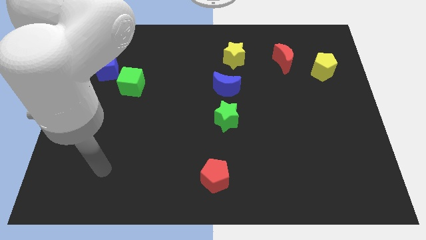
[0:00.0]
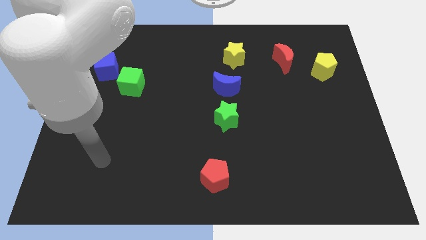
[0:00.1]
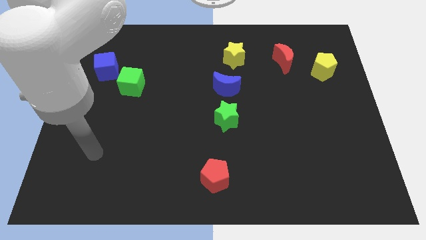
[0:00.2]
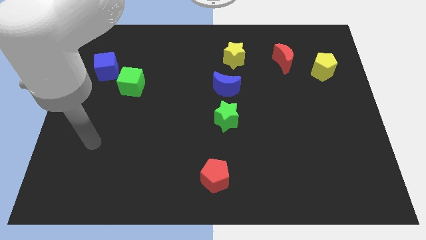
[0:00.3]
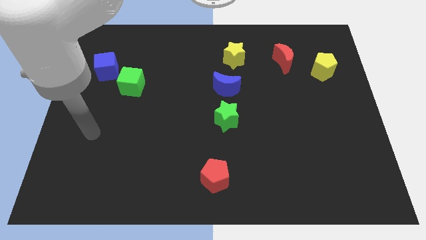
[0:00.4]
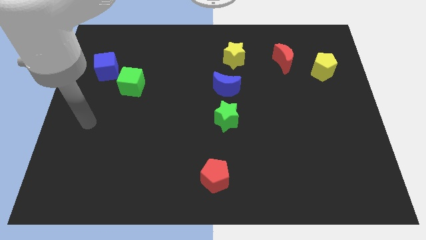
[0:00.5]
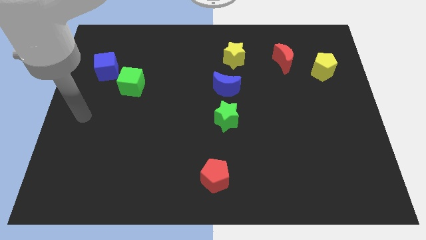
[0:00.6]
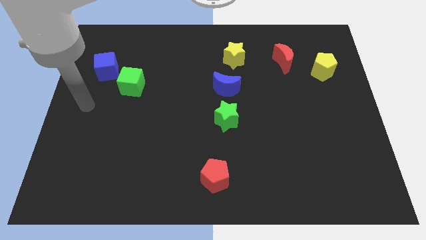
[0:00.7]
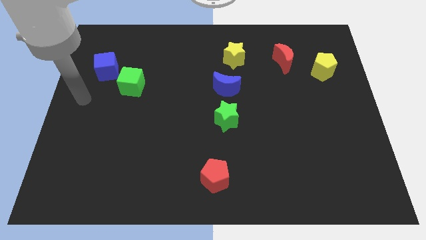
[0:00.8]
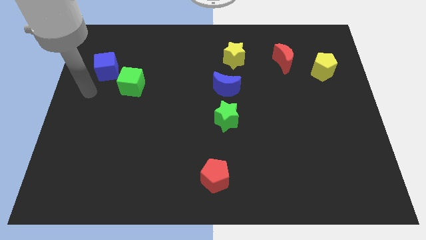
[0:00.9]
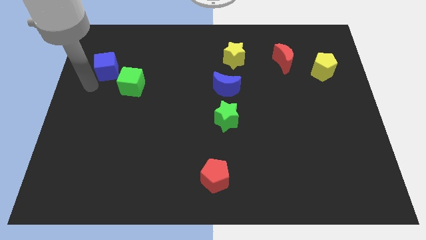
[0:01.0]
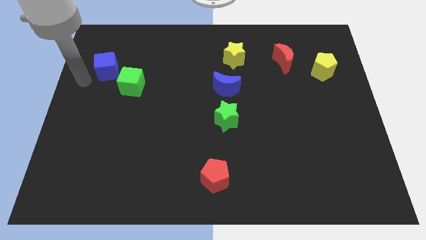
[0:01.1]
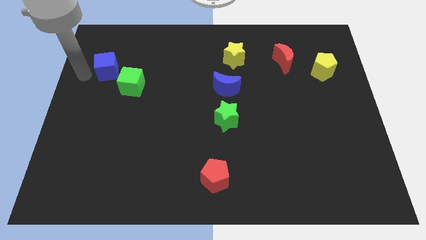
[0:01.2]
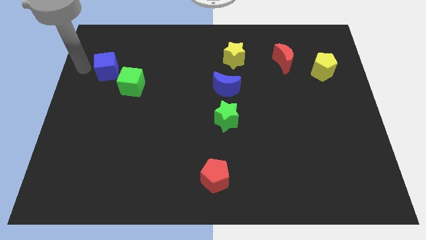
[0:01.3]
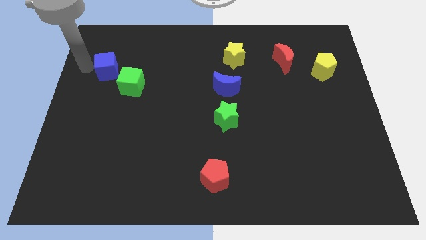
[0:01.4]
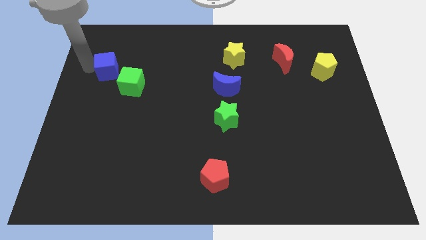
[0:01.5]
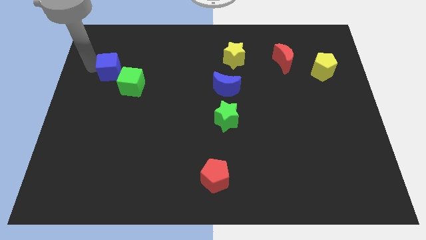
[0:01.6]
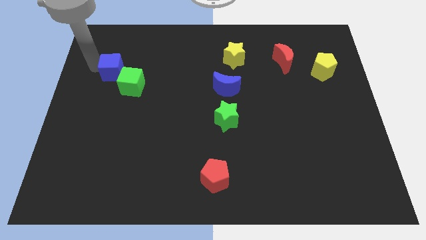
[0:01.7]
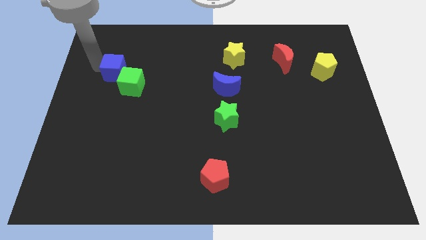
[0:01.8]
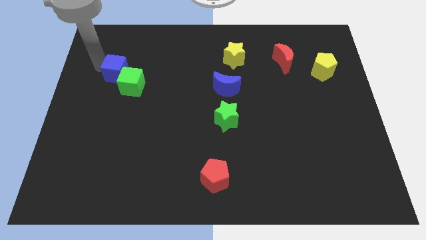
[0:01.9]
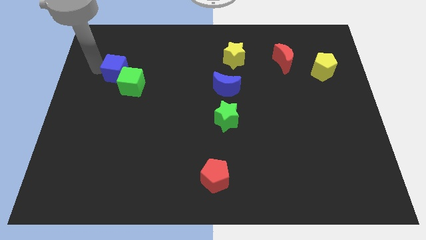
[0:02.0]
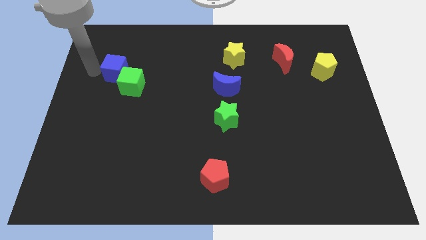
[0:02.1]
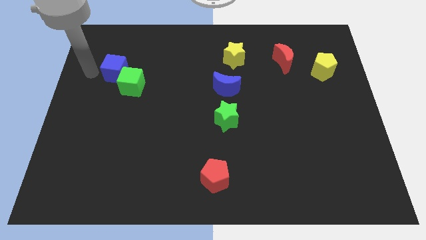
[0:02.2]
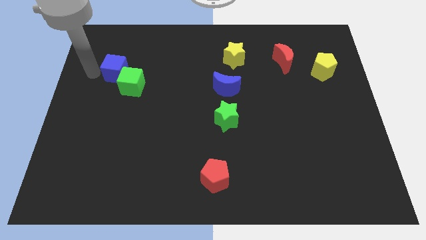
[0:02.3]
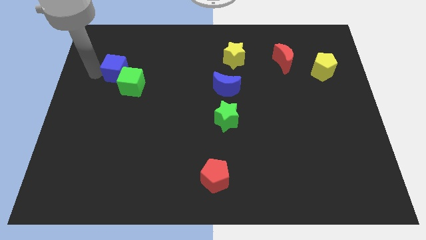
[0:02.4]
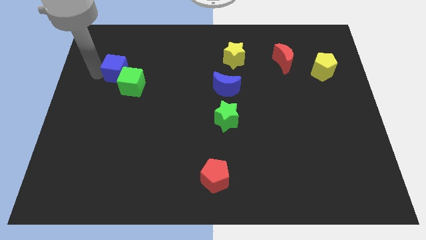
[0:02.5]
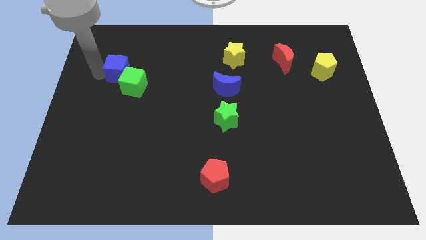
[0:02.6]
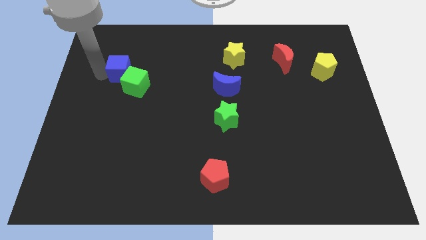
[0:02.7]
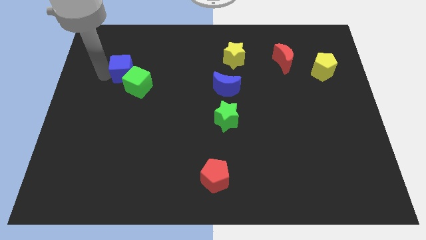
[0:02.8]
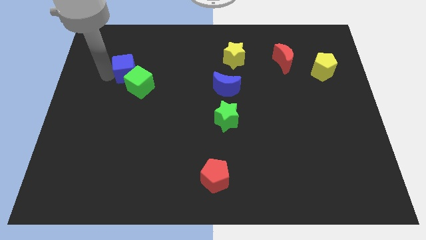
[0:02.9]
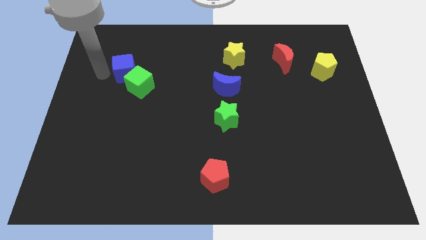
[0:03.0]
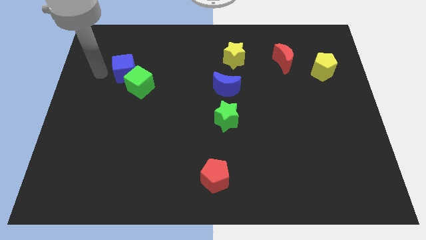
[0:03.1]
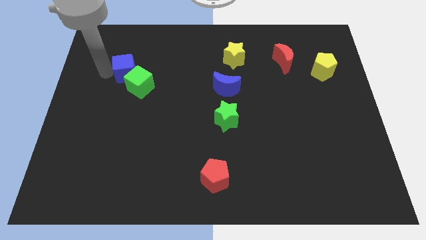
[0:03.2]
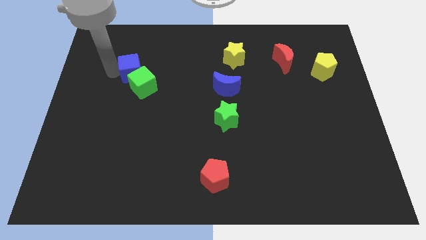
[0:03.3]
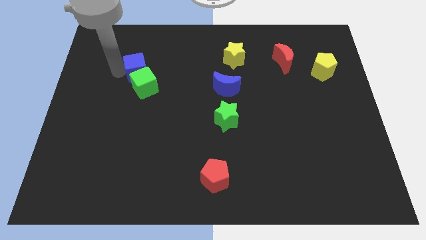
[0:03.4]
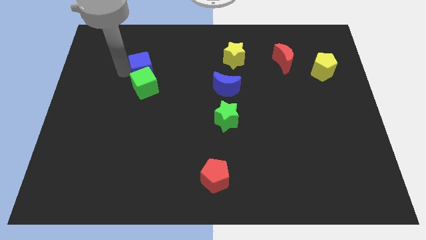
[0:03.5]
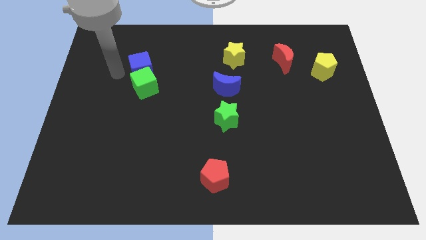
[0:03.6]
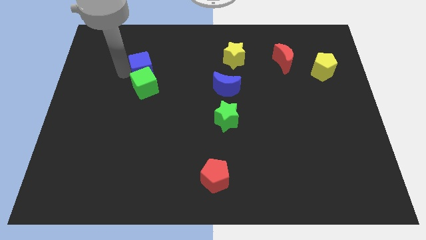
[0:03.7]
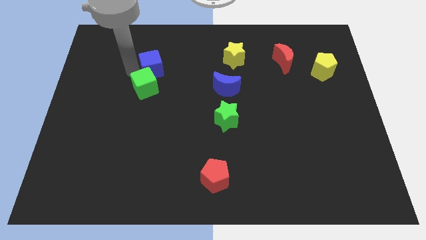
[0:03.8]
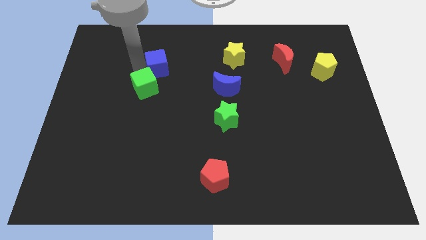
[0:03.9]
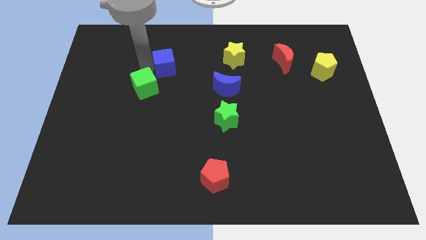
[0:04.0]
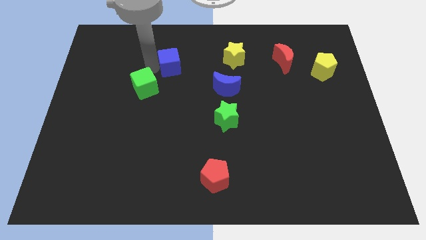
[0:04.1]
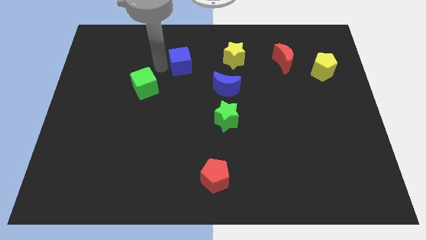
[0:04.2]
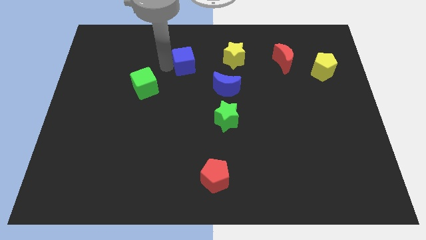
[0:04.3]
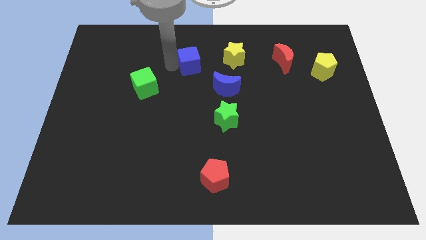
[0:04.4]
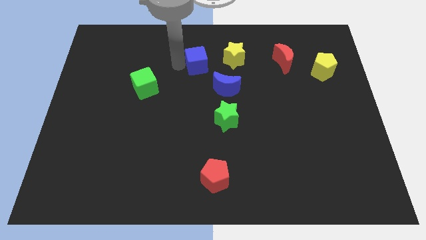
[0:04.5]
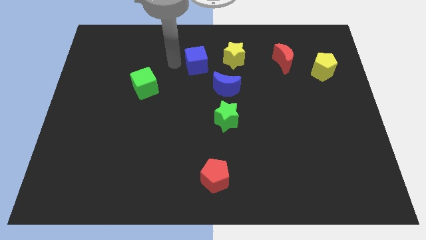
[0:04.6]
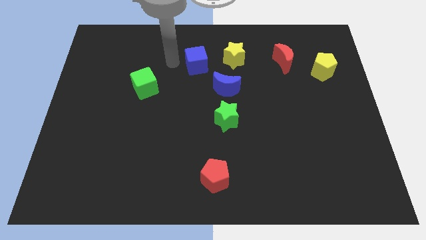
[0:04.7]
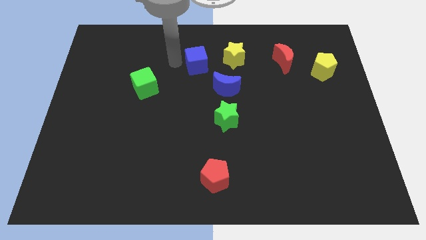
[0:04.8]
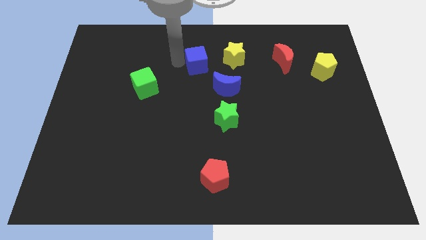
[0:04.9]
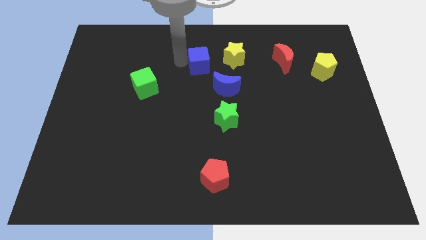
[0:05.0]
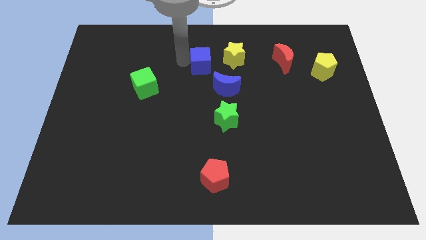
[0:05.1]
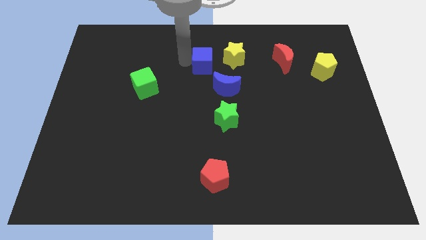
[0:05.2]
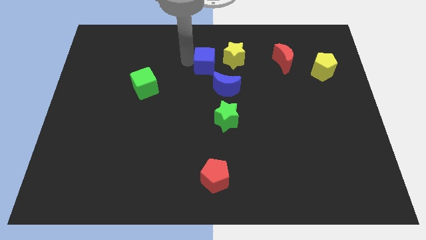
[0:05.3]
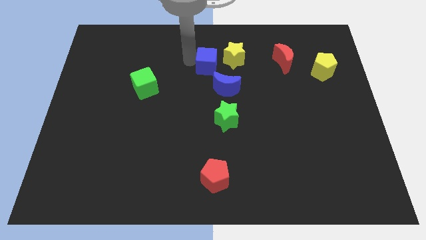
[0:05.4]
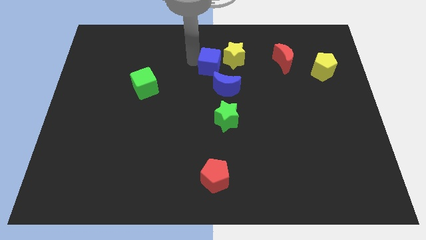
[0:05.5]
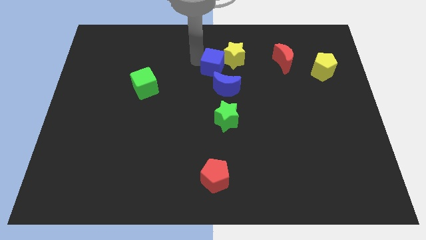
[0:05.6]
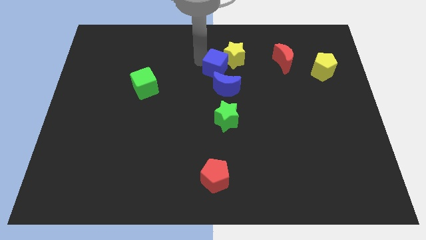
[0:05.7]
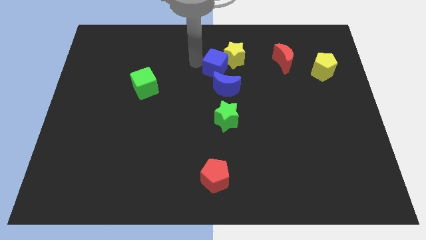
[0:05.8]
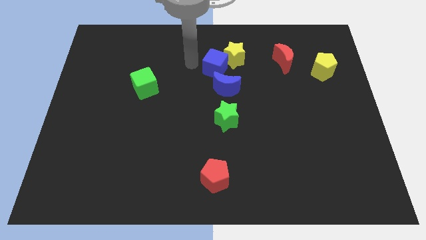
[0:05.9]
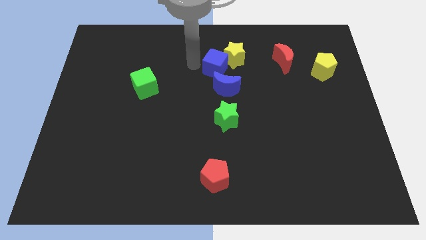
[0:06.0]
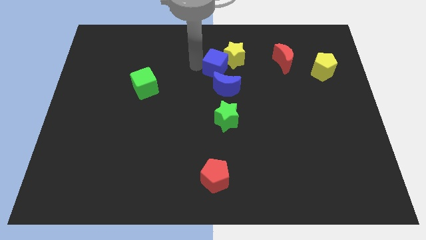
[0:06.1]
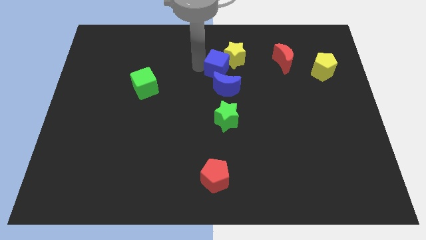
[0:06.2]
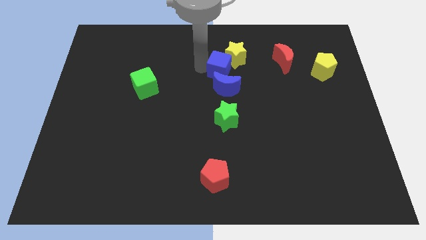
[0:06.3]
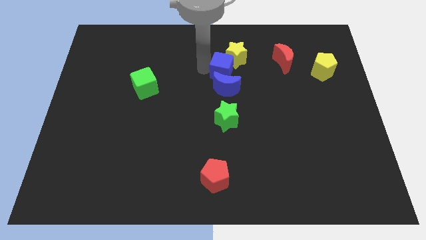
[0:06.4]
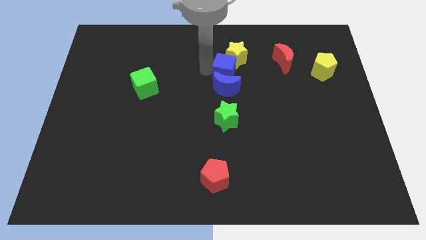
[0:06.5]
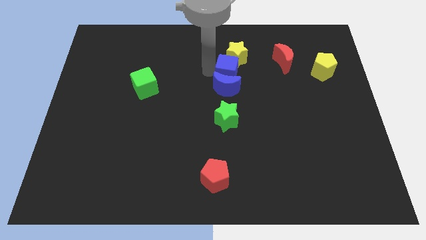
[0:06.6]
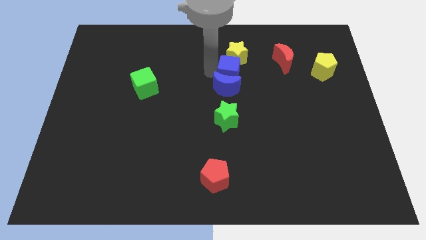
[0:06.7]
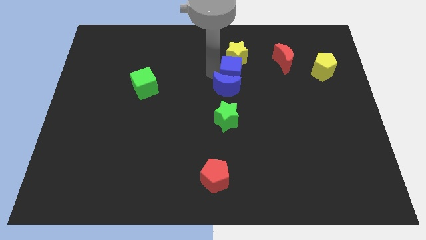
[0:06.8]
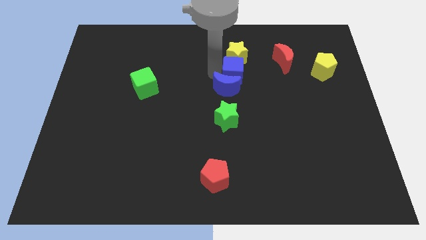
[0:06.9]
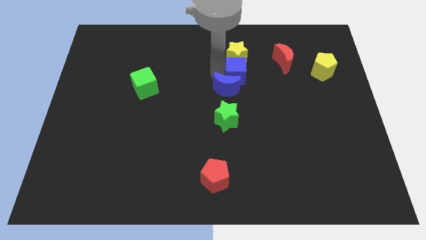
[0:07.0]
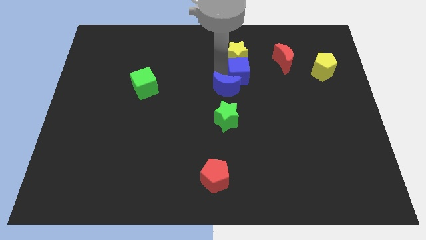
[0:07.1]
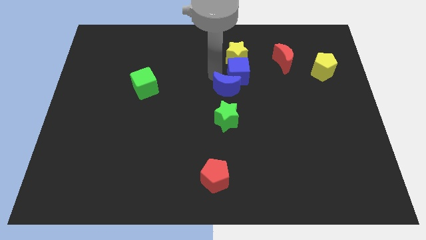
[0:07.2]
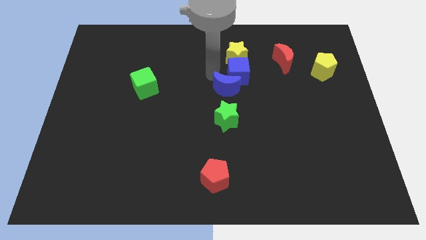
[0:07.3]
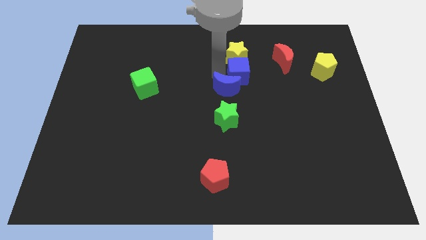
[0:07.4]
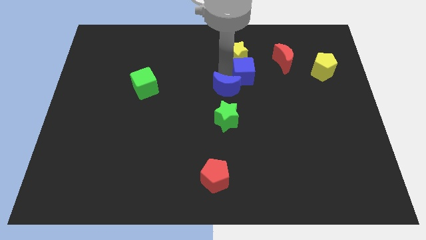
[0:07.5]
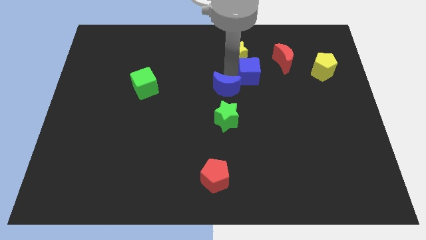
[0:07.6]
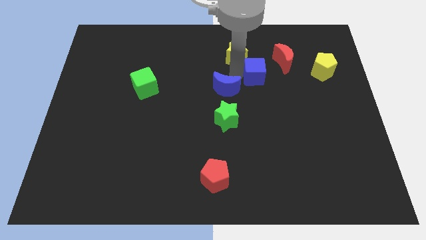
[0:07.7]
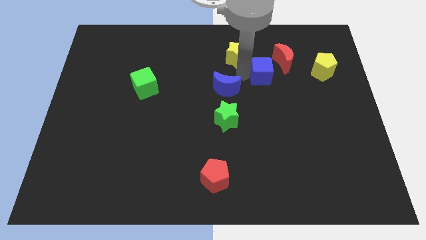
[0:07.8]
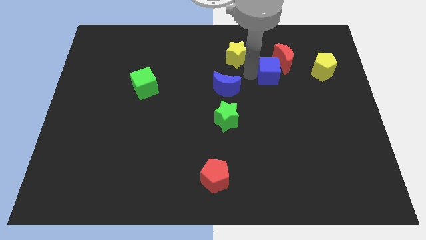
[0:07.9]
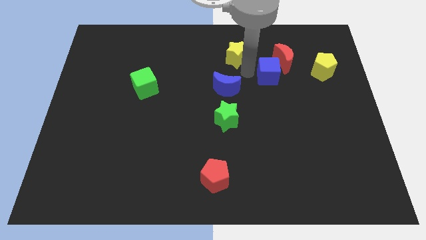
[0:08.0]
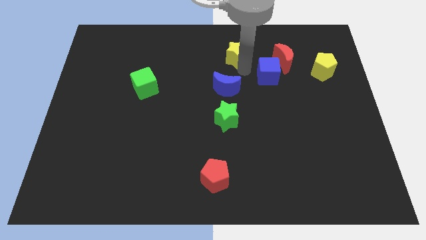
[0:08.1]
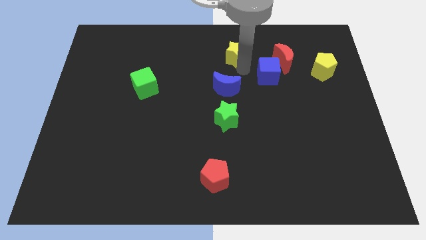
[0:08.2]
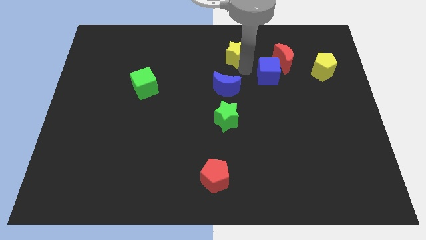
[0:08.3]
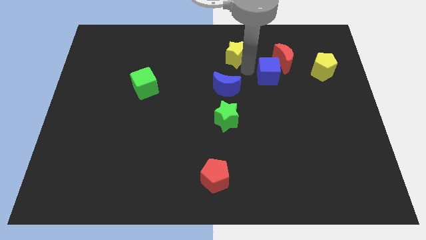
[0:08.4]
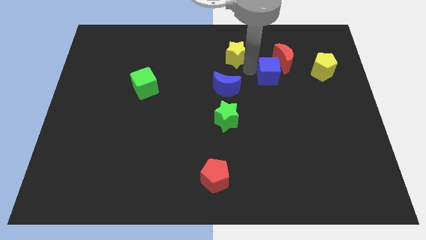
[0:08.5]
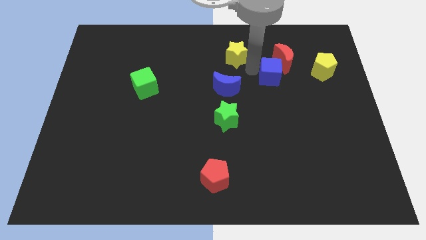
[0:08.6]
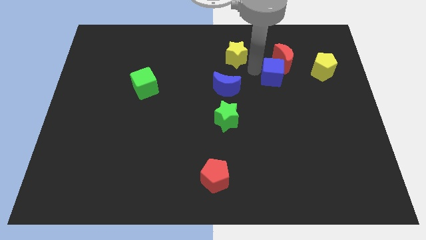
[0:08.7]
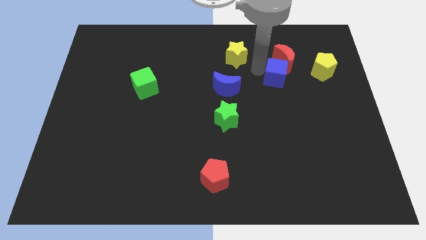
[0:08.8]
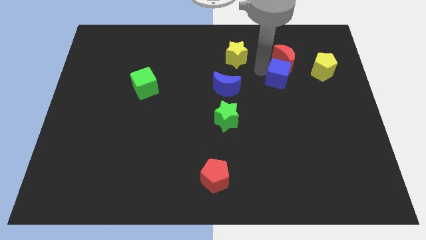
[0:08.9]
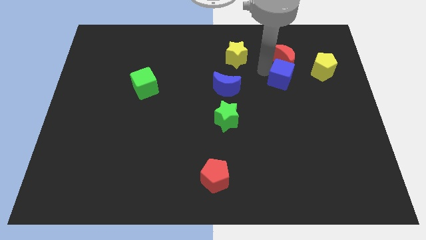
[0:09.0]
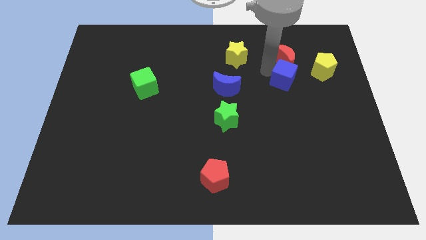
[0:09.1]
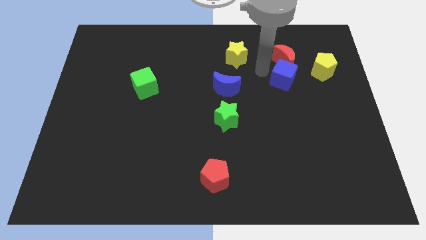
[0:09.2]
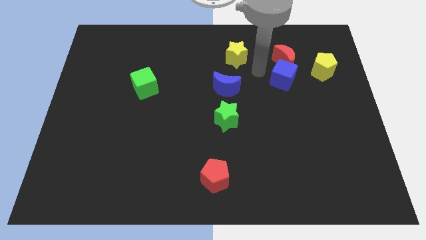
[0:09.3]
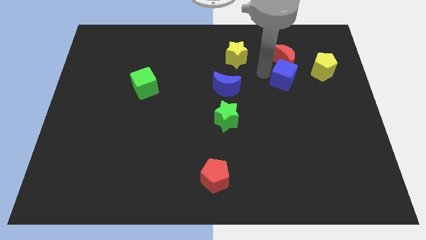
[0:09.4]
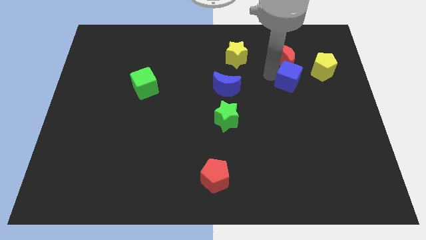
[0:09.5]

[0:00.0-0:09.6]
move the blue cube to the bottom left side of the yellow pentagon
